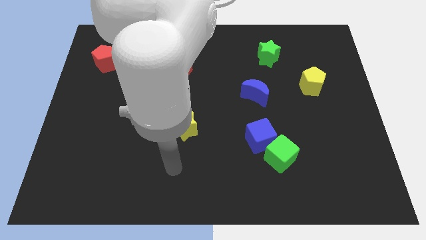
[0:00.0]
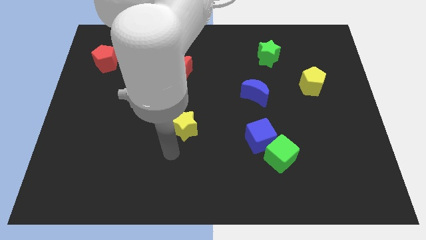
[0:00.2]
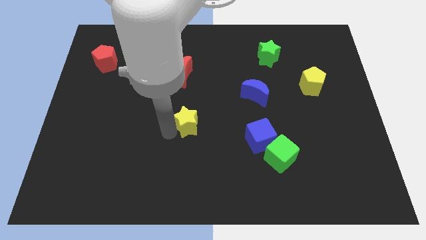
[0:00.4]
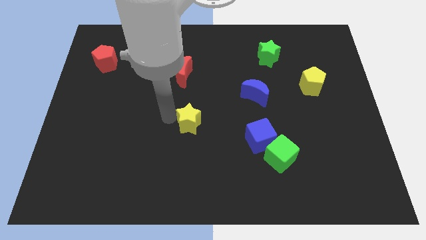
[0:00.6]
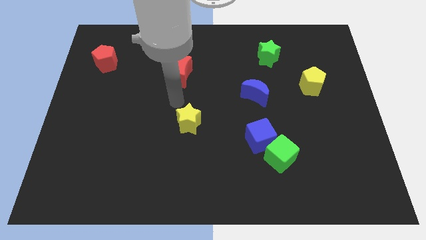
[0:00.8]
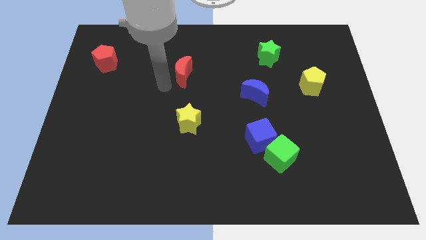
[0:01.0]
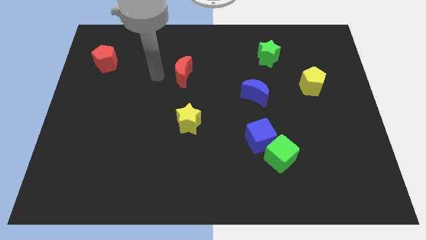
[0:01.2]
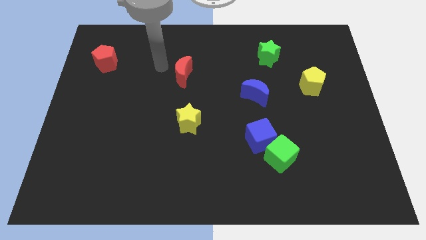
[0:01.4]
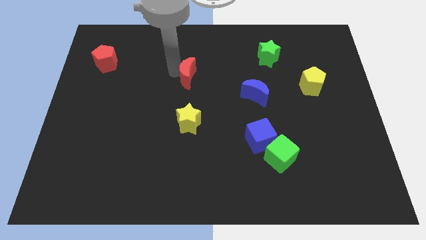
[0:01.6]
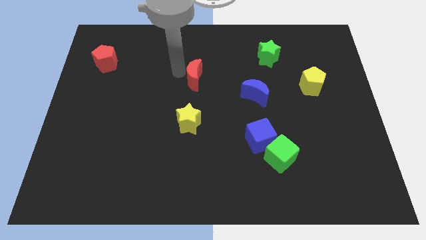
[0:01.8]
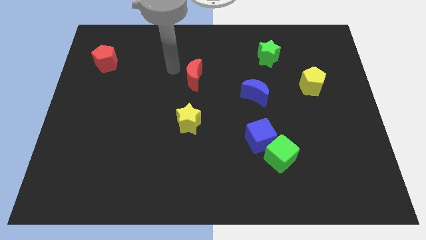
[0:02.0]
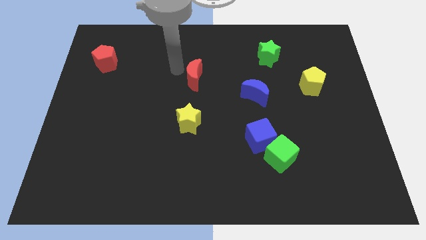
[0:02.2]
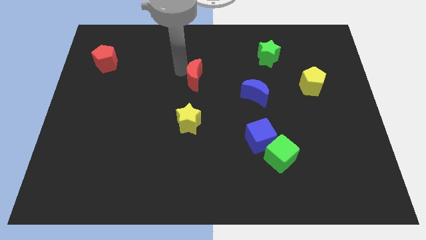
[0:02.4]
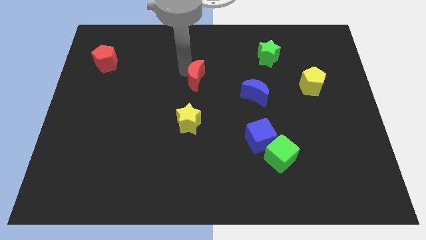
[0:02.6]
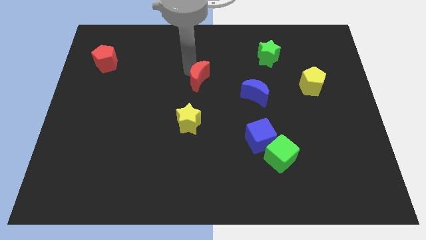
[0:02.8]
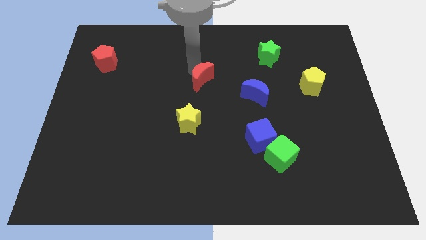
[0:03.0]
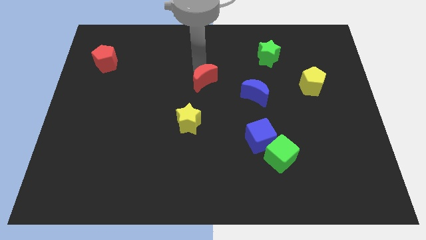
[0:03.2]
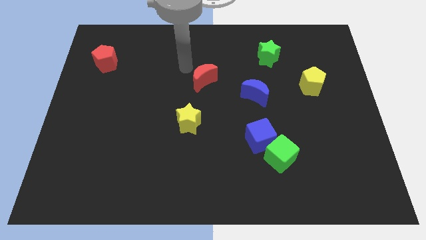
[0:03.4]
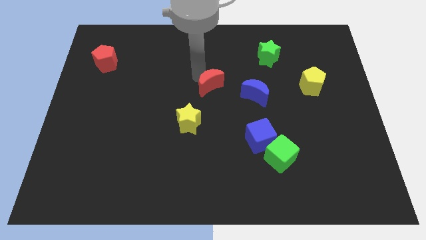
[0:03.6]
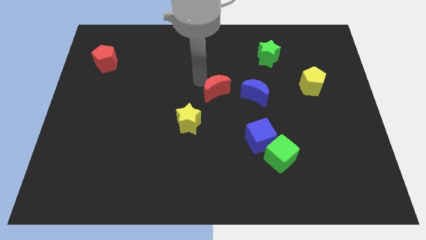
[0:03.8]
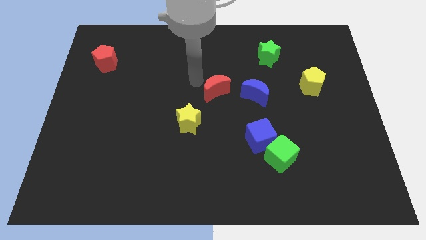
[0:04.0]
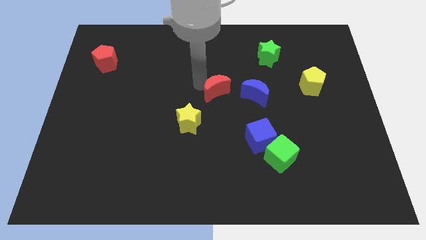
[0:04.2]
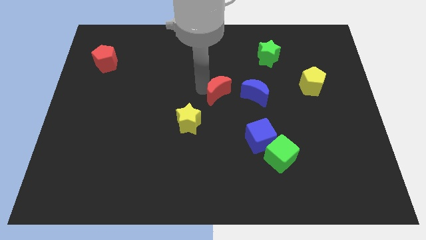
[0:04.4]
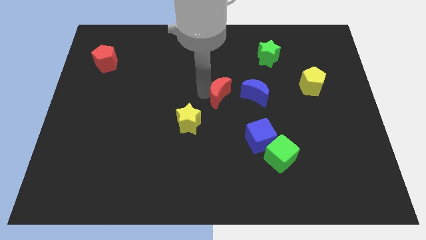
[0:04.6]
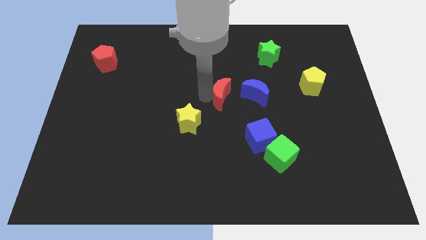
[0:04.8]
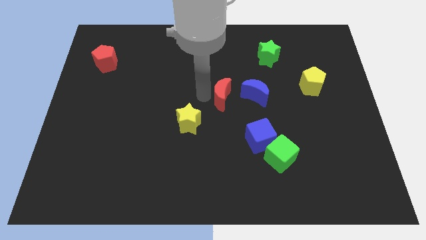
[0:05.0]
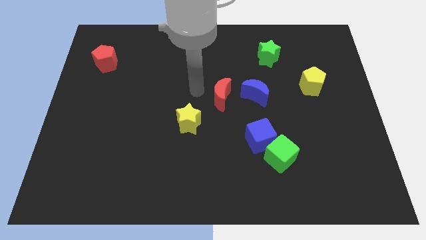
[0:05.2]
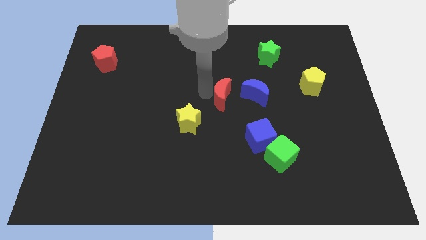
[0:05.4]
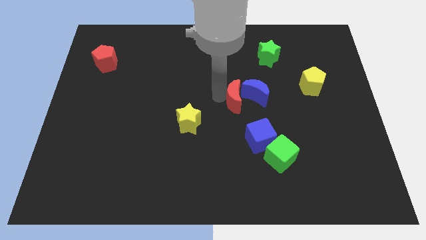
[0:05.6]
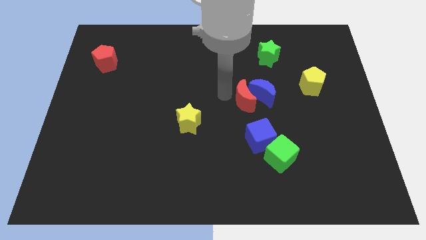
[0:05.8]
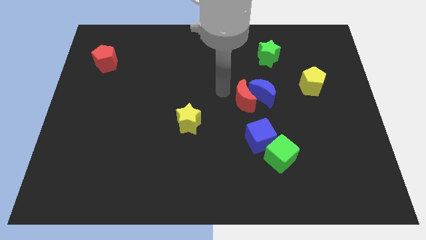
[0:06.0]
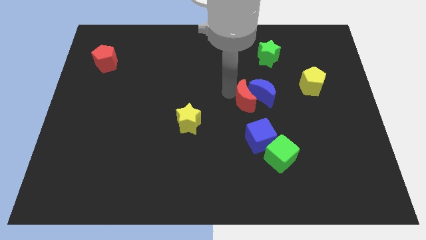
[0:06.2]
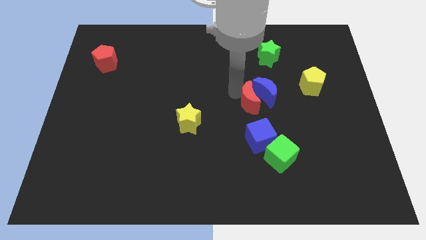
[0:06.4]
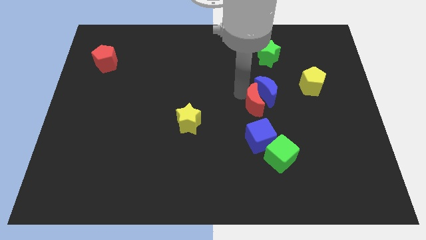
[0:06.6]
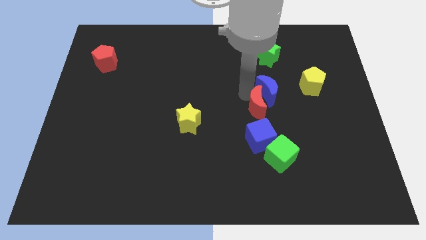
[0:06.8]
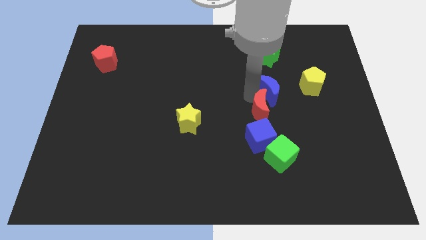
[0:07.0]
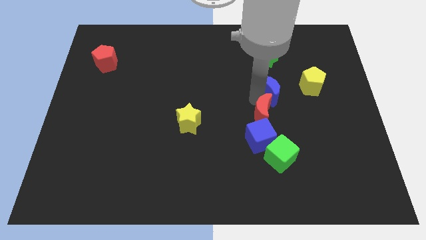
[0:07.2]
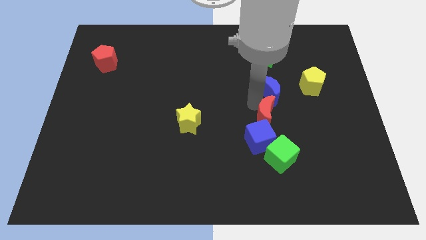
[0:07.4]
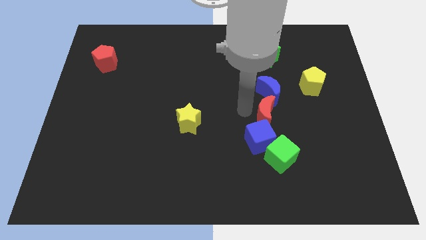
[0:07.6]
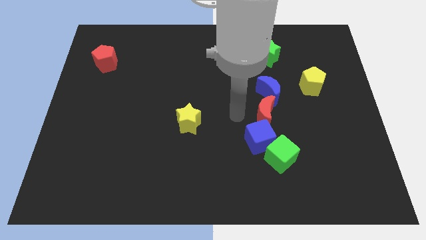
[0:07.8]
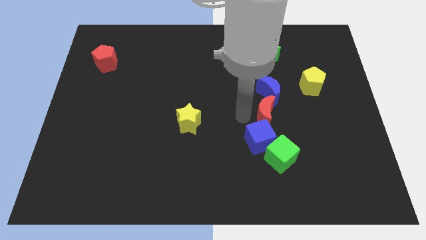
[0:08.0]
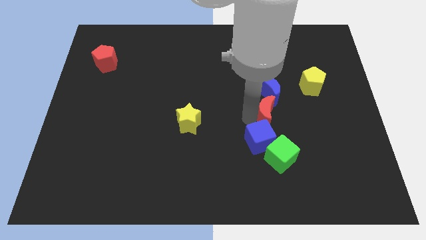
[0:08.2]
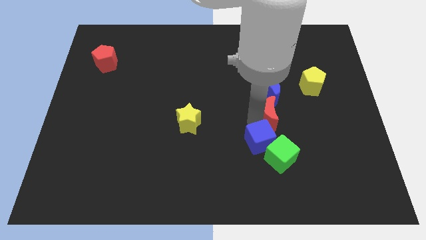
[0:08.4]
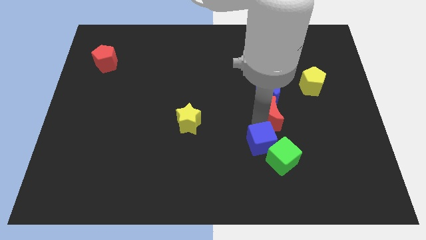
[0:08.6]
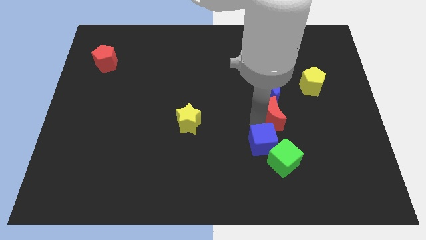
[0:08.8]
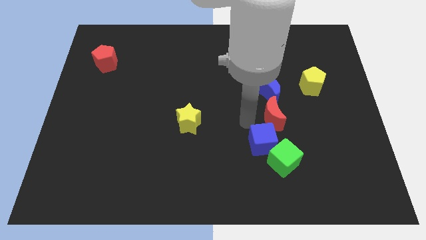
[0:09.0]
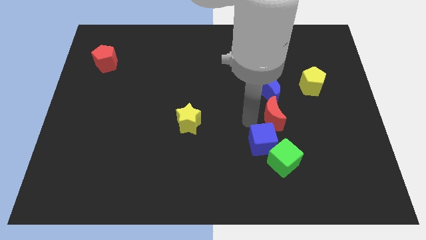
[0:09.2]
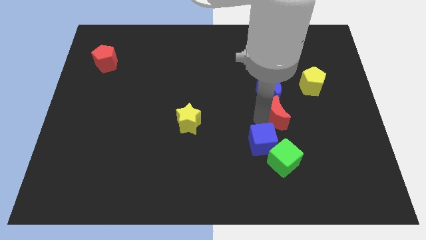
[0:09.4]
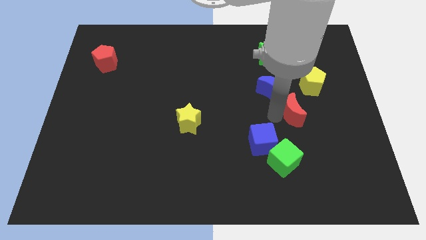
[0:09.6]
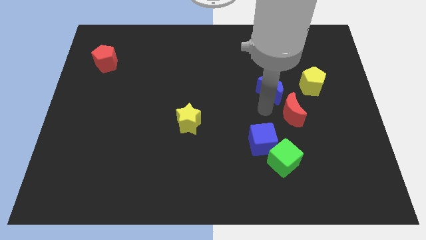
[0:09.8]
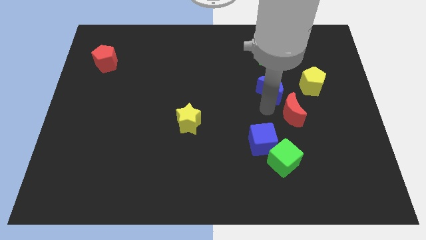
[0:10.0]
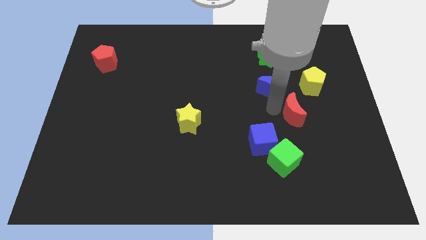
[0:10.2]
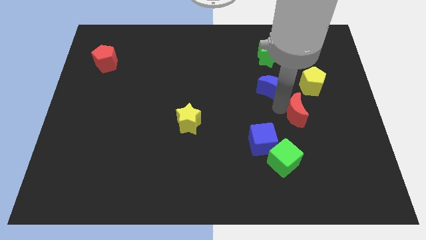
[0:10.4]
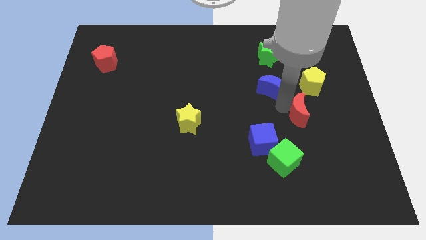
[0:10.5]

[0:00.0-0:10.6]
move the red moon to the bottom of the yellow pentagon

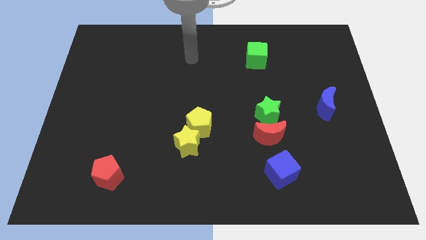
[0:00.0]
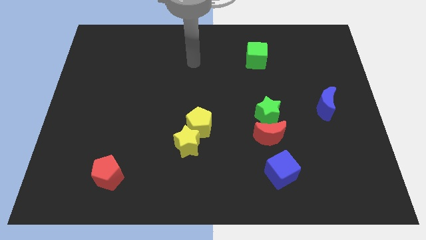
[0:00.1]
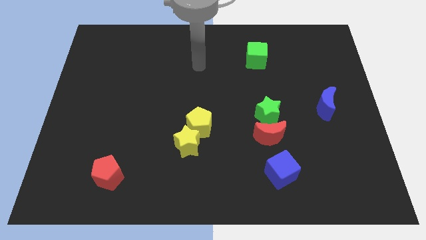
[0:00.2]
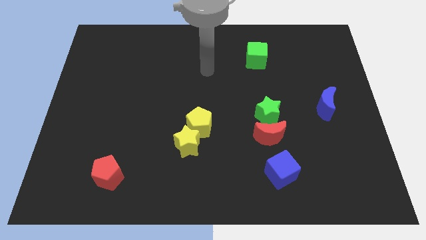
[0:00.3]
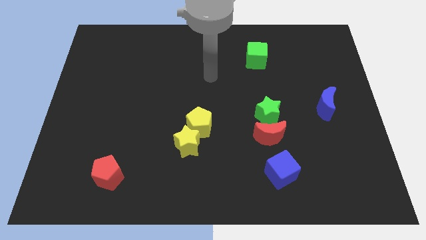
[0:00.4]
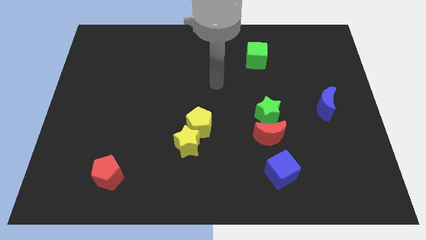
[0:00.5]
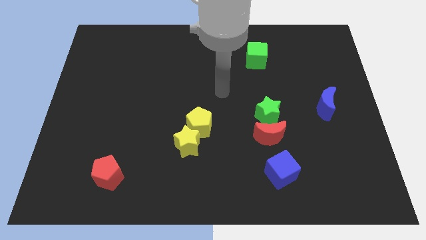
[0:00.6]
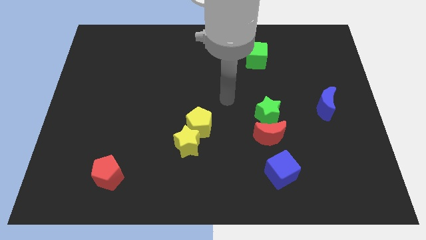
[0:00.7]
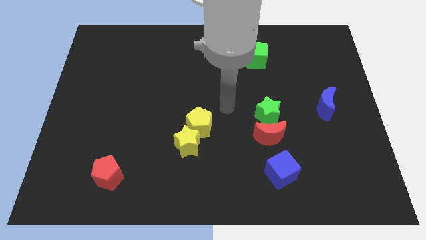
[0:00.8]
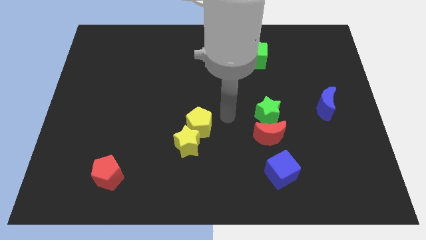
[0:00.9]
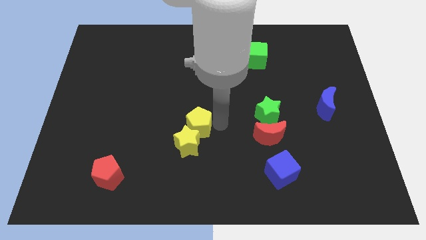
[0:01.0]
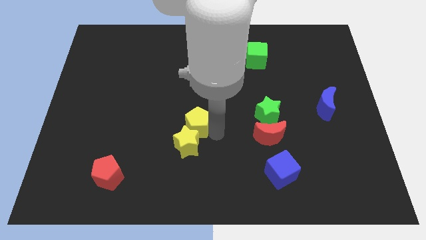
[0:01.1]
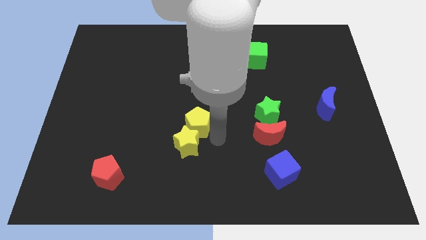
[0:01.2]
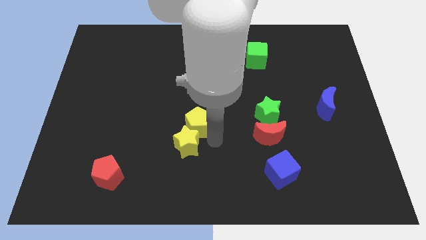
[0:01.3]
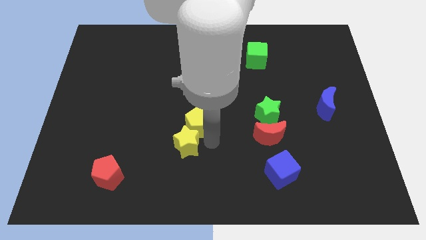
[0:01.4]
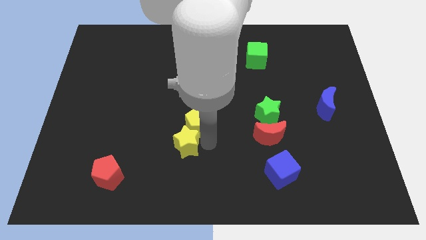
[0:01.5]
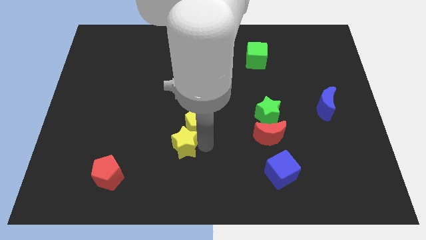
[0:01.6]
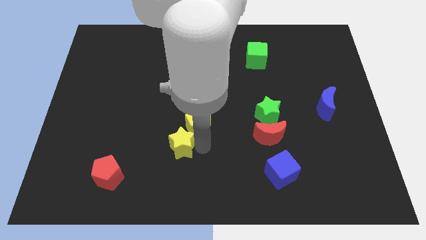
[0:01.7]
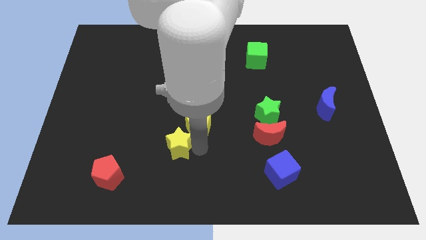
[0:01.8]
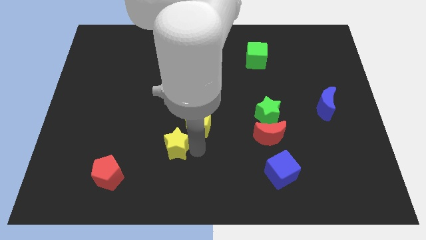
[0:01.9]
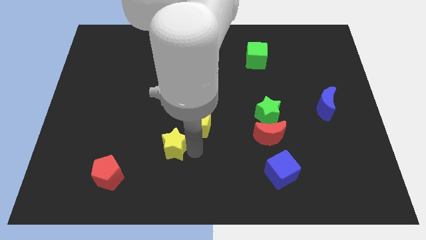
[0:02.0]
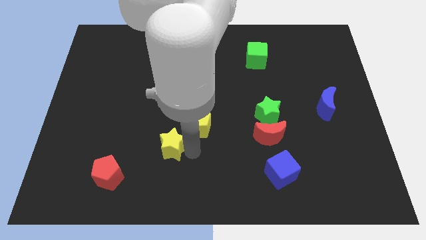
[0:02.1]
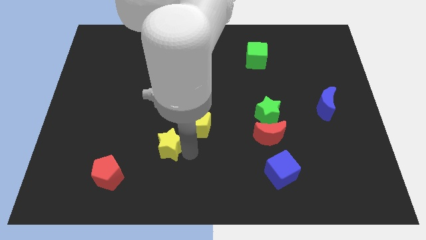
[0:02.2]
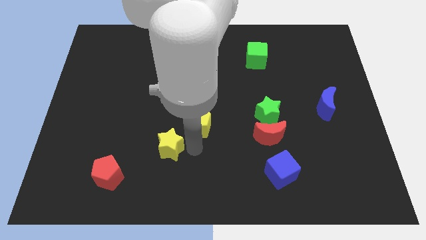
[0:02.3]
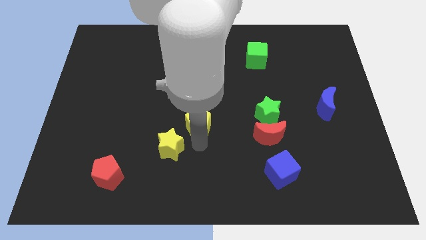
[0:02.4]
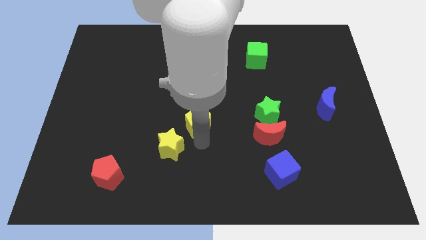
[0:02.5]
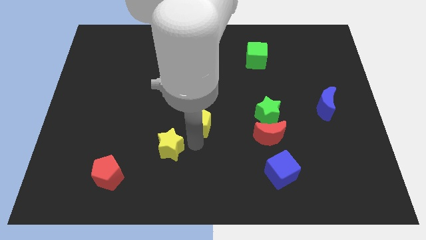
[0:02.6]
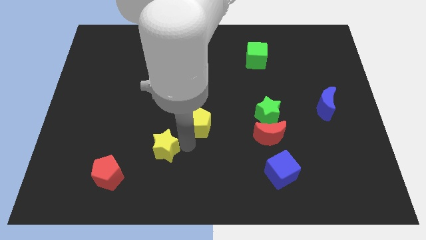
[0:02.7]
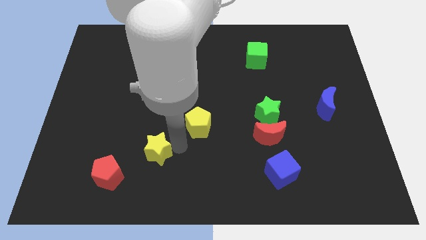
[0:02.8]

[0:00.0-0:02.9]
move the yellow star to the top right side of the red pentagon
